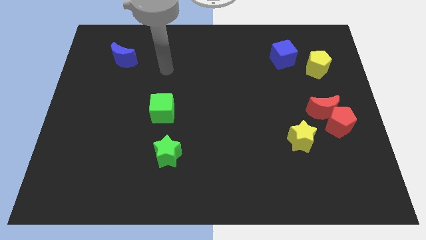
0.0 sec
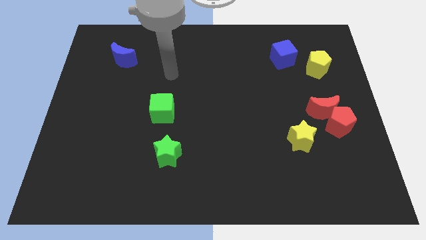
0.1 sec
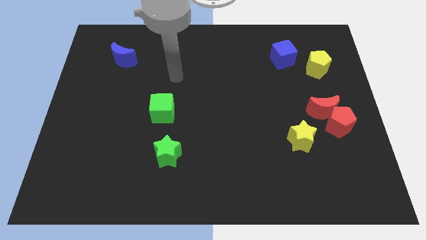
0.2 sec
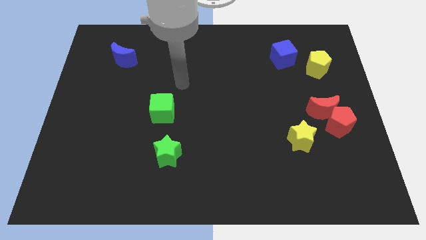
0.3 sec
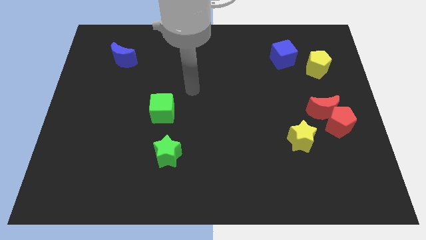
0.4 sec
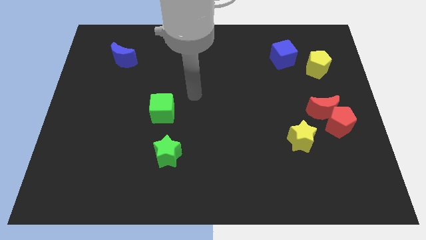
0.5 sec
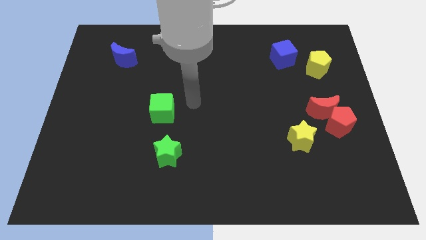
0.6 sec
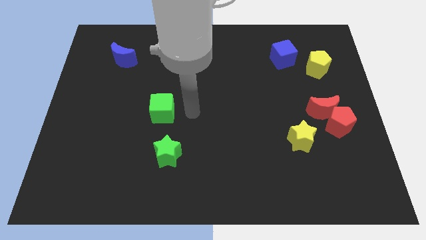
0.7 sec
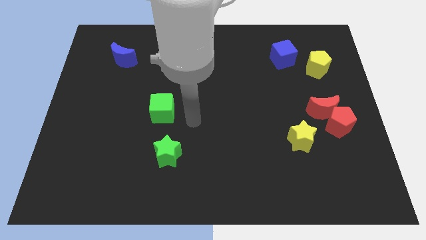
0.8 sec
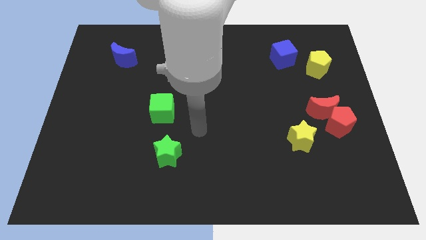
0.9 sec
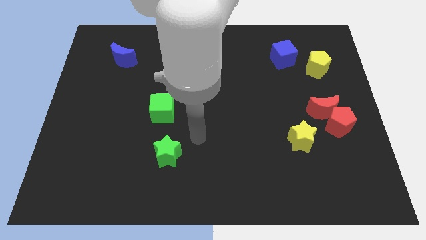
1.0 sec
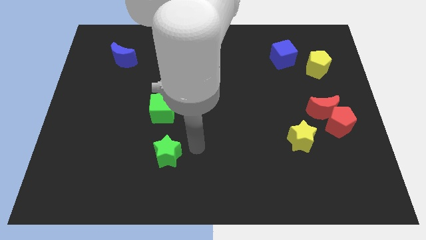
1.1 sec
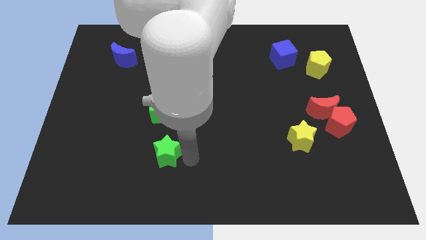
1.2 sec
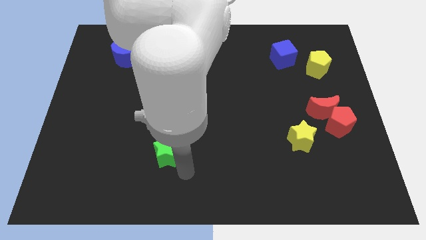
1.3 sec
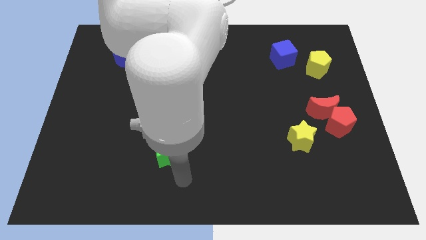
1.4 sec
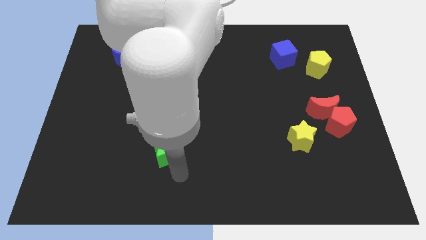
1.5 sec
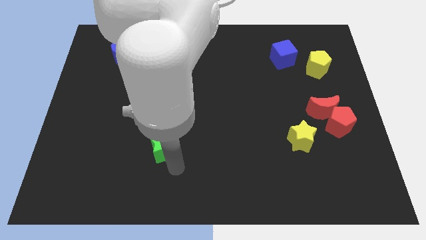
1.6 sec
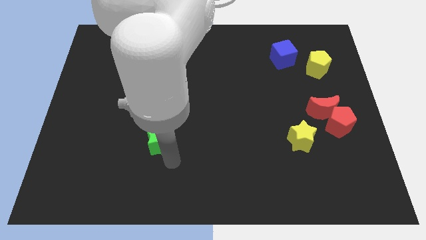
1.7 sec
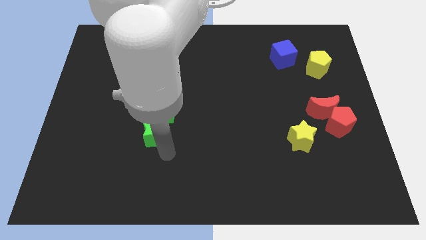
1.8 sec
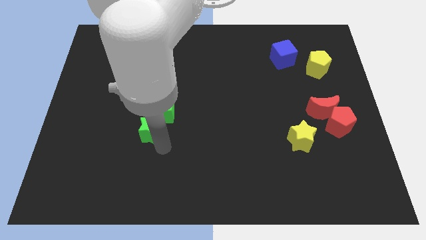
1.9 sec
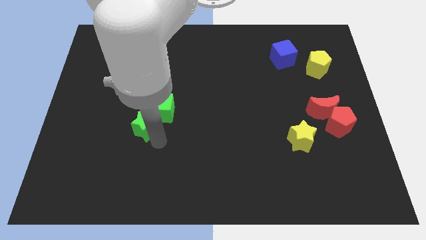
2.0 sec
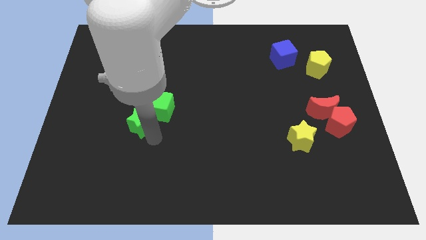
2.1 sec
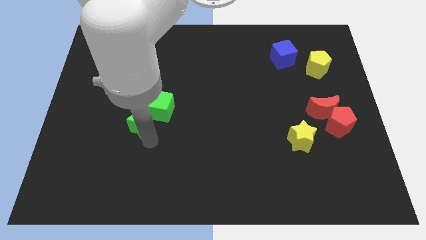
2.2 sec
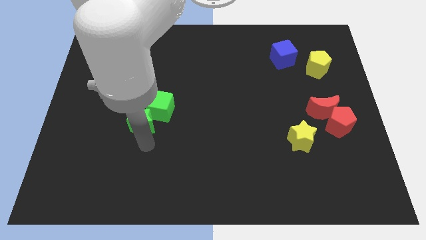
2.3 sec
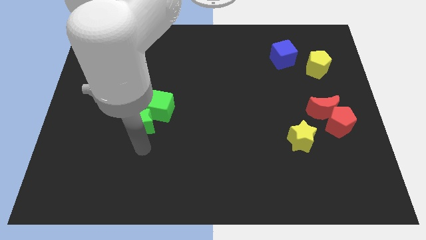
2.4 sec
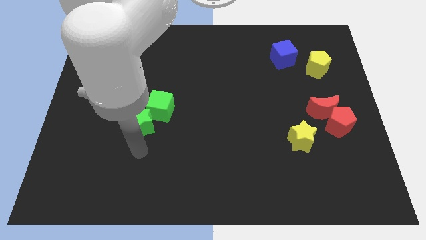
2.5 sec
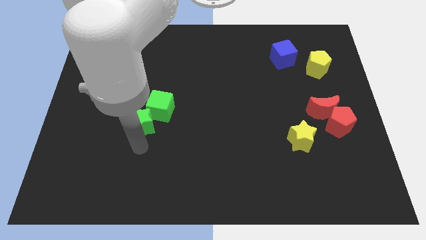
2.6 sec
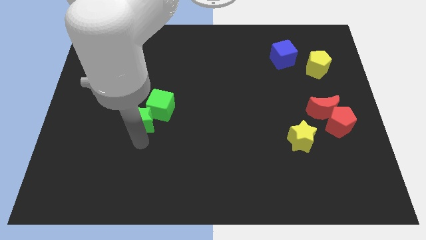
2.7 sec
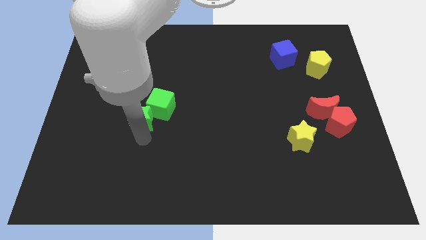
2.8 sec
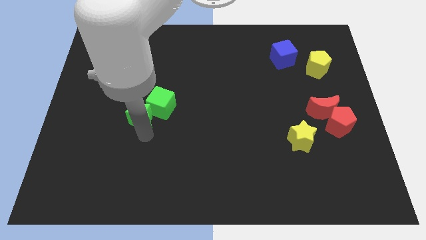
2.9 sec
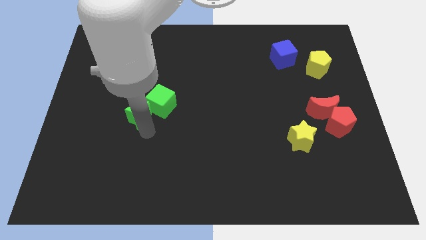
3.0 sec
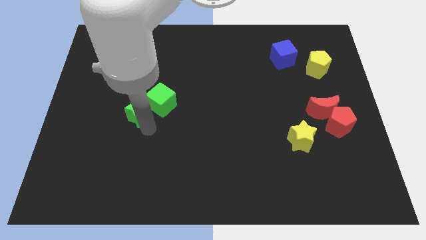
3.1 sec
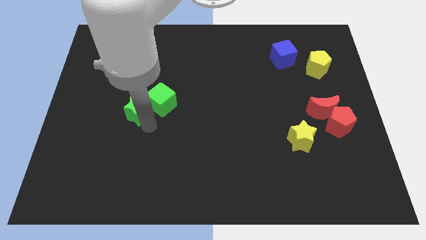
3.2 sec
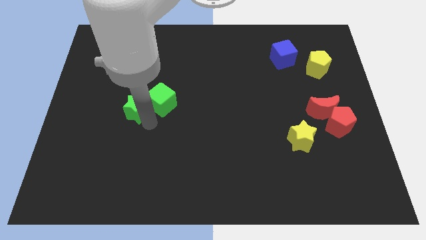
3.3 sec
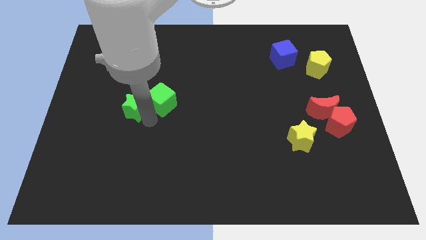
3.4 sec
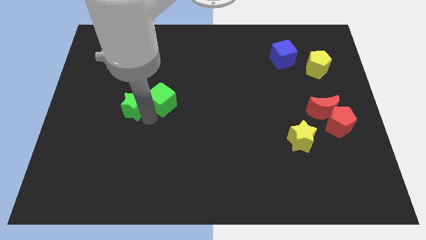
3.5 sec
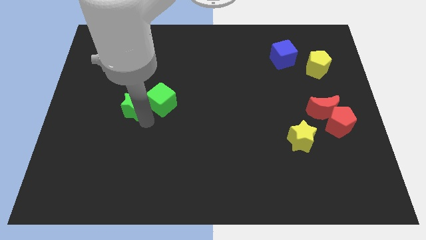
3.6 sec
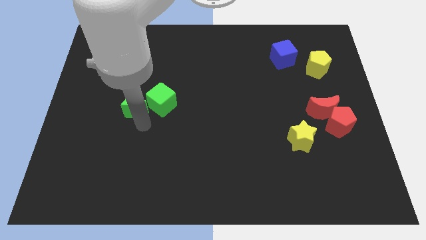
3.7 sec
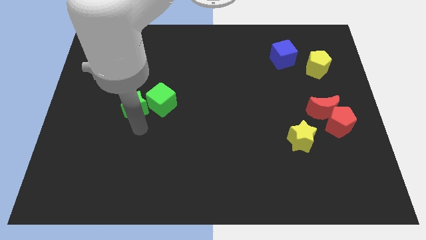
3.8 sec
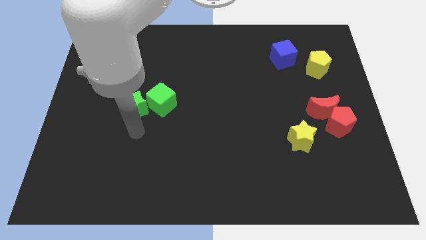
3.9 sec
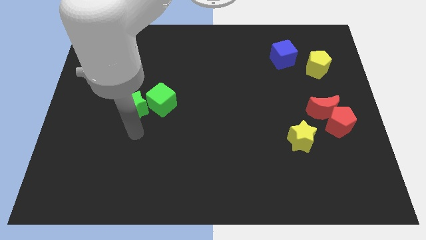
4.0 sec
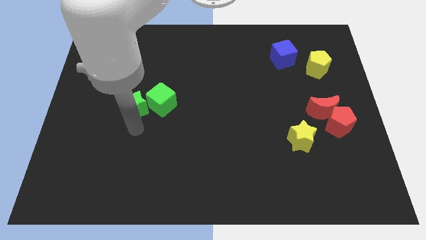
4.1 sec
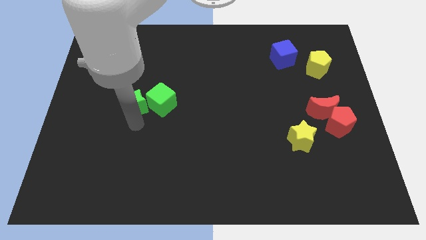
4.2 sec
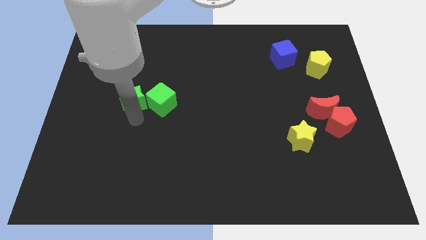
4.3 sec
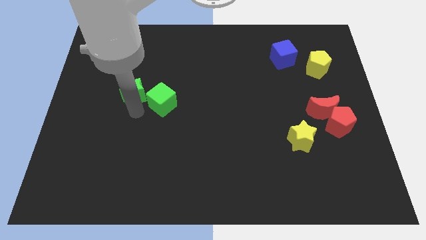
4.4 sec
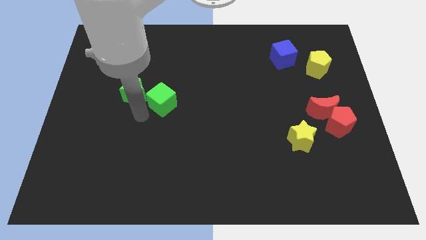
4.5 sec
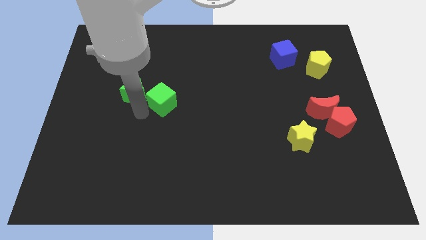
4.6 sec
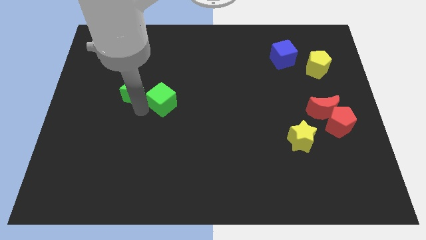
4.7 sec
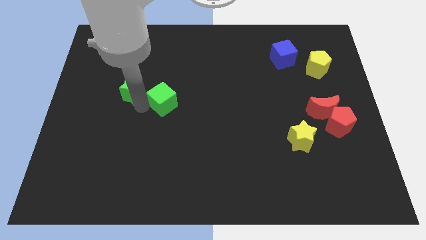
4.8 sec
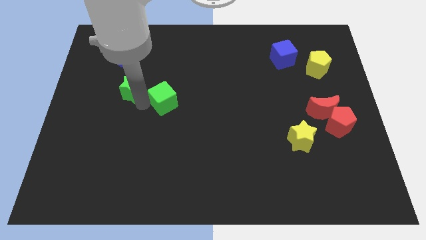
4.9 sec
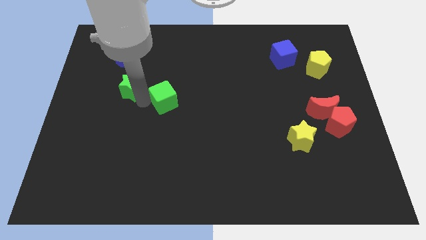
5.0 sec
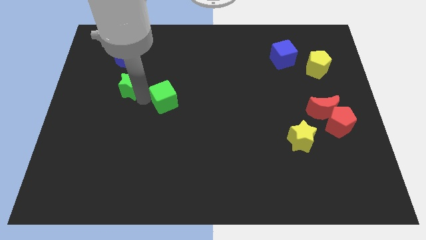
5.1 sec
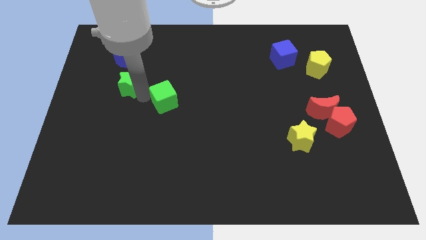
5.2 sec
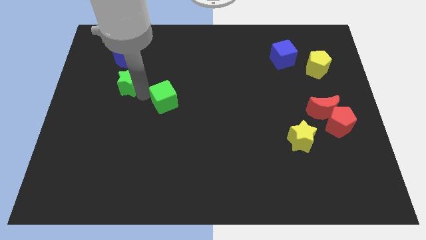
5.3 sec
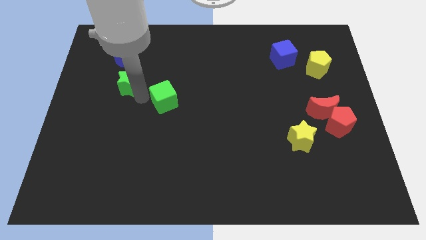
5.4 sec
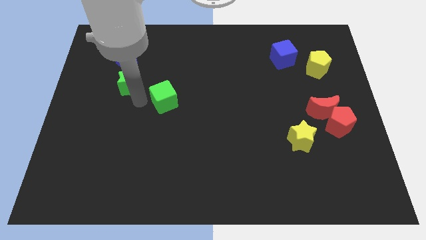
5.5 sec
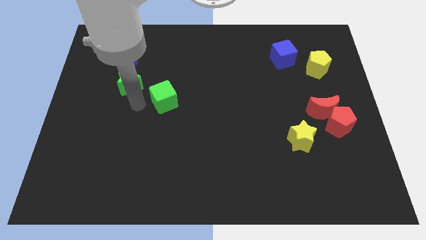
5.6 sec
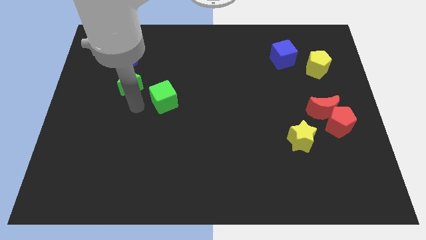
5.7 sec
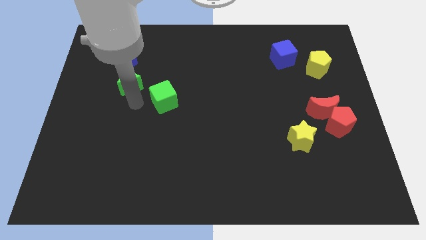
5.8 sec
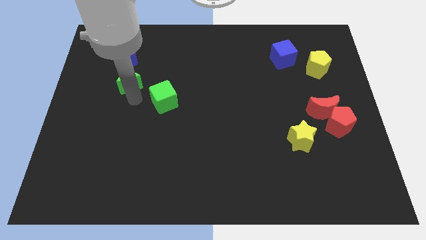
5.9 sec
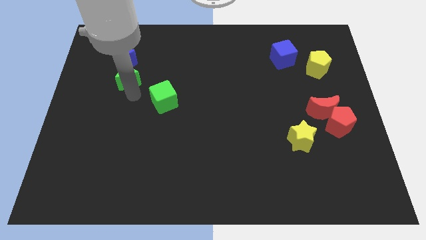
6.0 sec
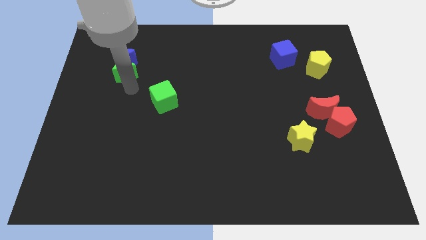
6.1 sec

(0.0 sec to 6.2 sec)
put the green star next to the blue moon

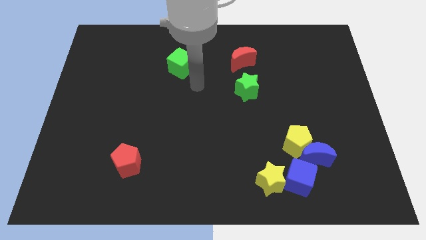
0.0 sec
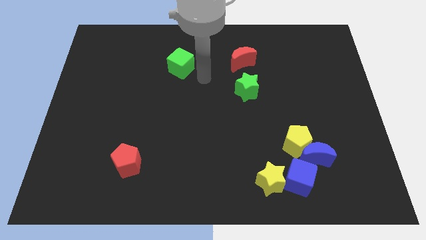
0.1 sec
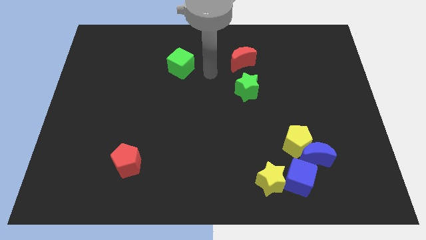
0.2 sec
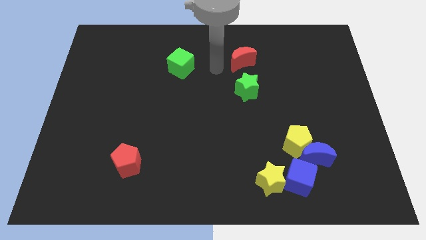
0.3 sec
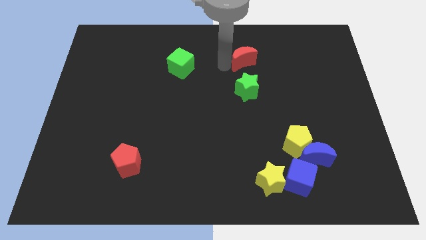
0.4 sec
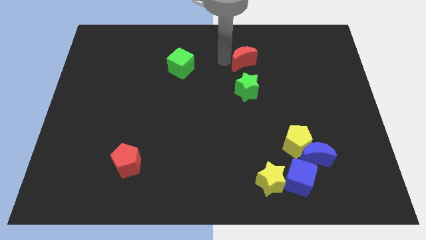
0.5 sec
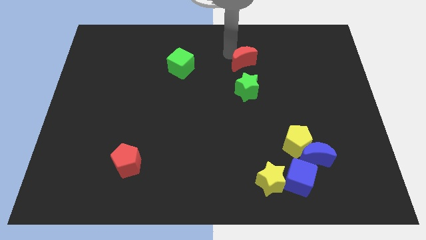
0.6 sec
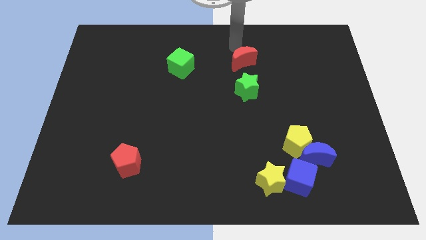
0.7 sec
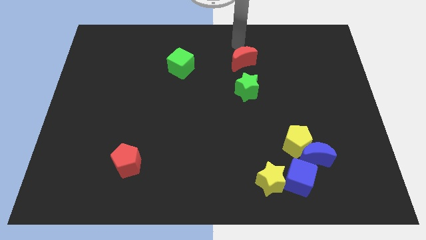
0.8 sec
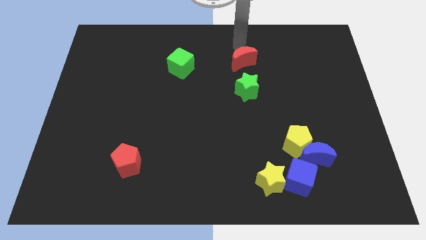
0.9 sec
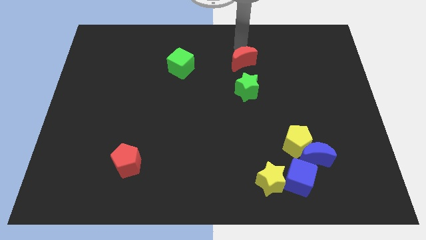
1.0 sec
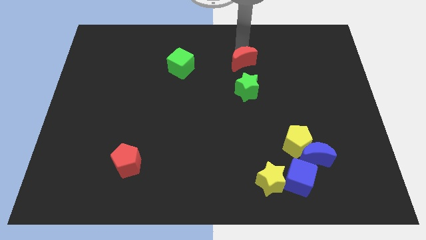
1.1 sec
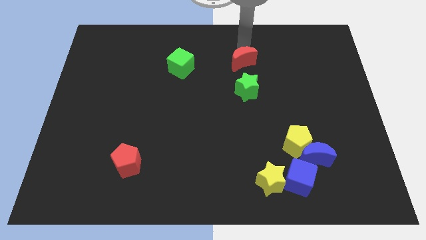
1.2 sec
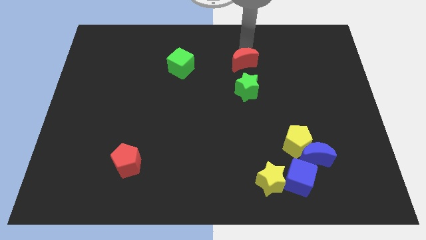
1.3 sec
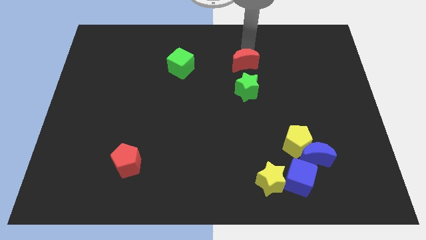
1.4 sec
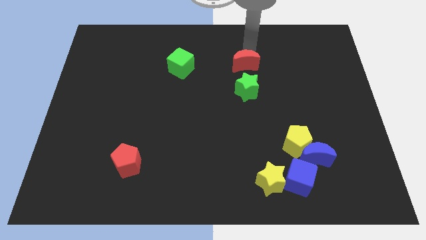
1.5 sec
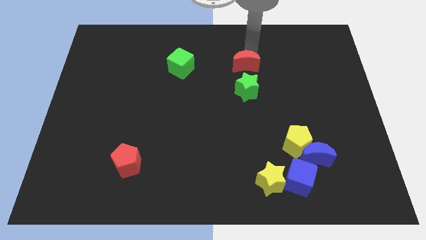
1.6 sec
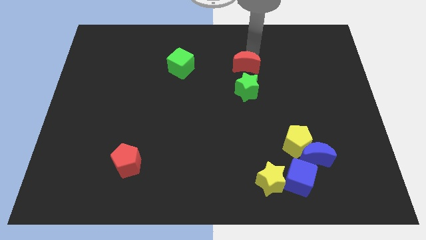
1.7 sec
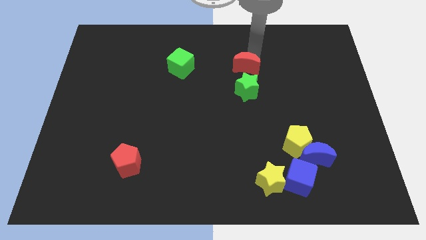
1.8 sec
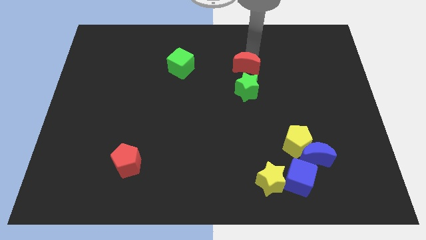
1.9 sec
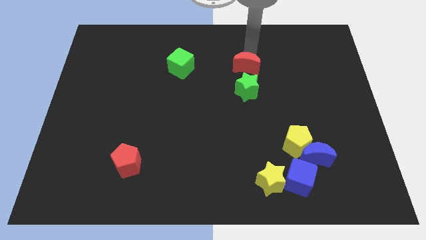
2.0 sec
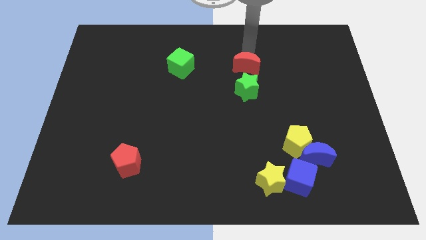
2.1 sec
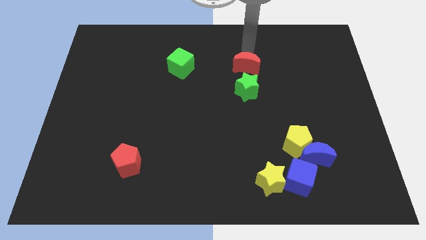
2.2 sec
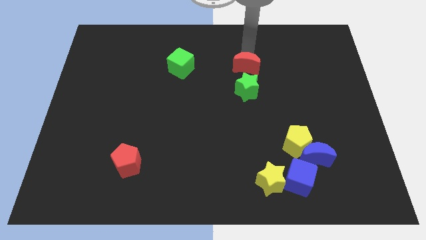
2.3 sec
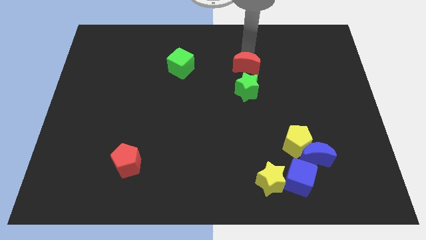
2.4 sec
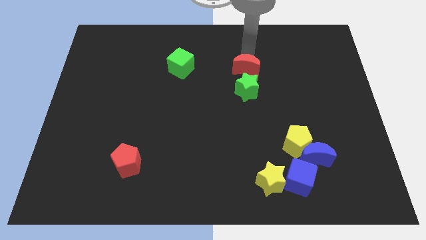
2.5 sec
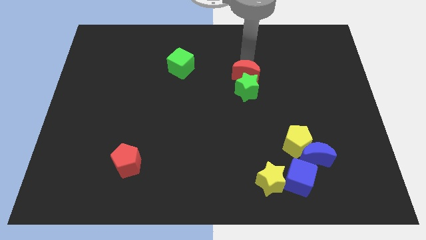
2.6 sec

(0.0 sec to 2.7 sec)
put the red moon to the green star
